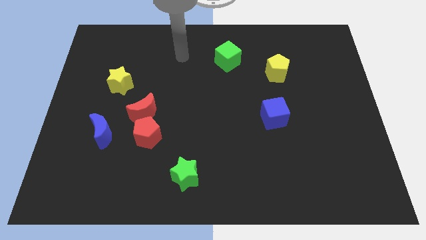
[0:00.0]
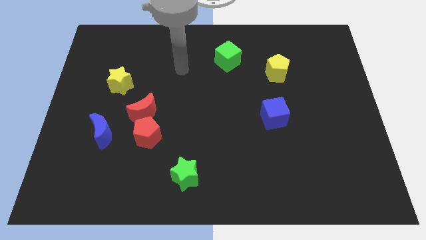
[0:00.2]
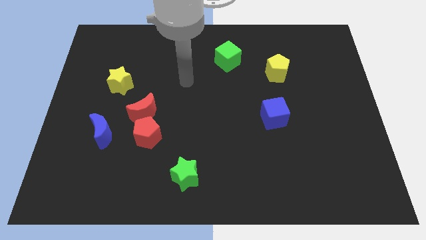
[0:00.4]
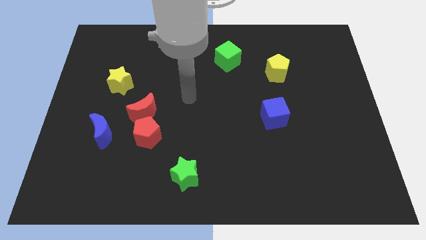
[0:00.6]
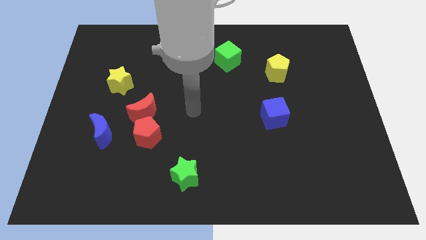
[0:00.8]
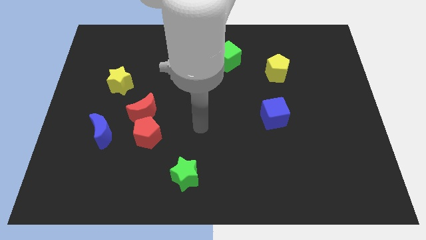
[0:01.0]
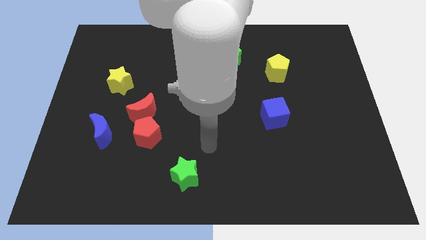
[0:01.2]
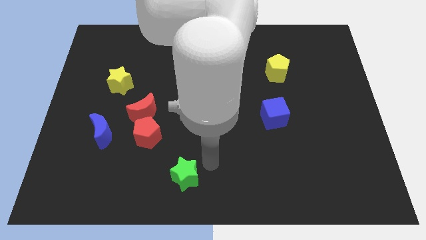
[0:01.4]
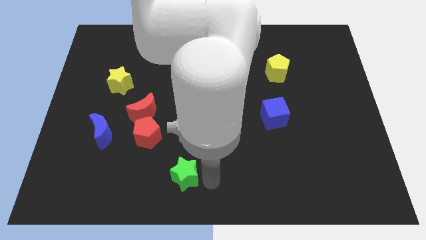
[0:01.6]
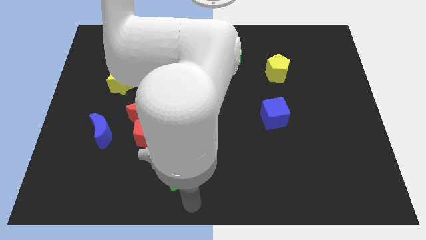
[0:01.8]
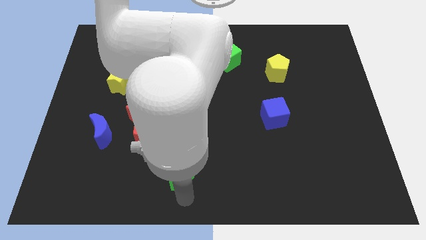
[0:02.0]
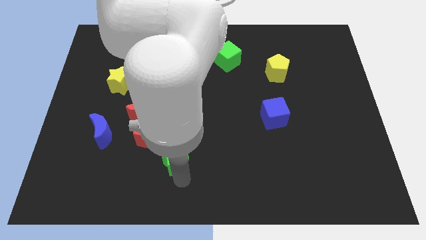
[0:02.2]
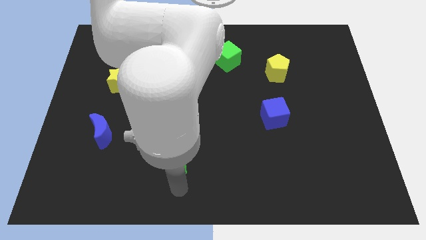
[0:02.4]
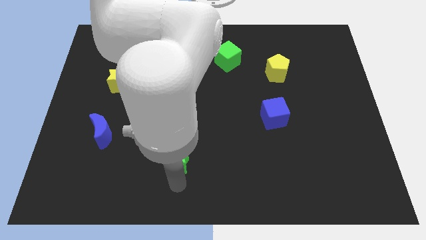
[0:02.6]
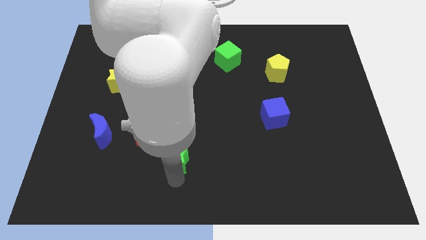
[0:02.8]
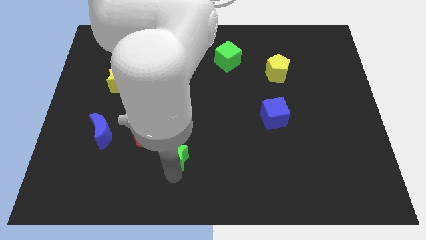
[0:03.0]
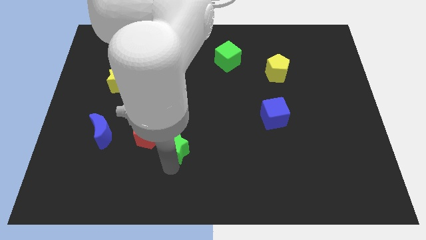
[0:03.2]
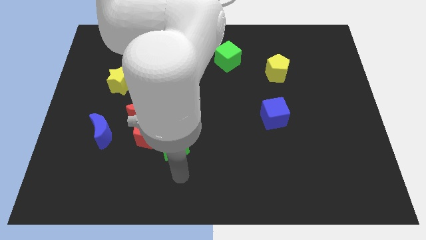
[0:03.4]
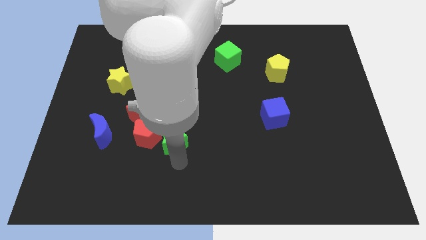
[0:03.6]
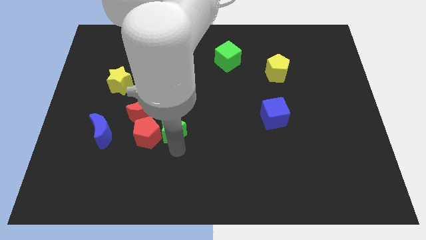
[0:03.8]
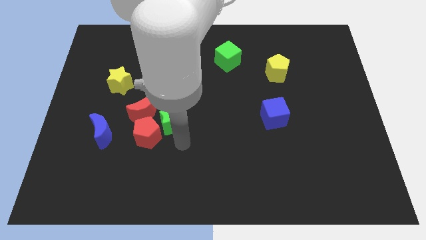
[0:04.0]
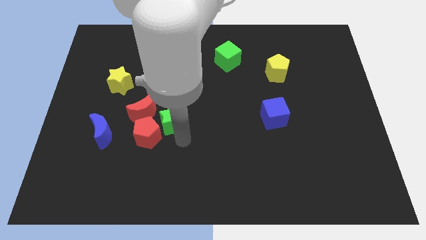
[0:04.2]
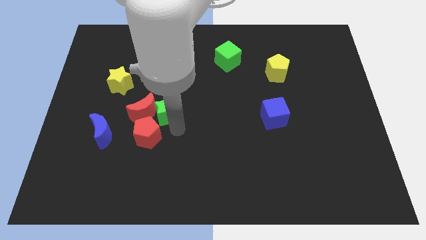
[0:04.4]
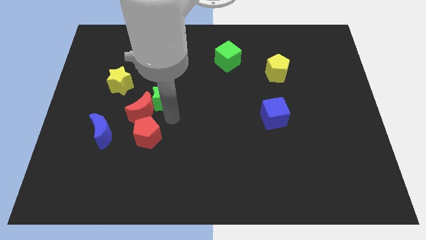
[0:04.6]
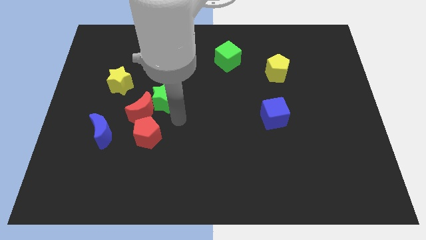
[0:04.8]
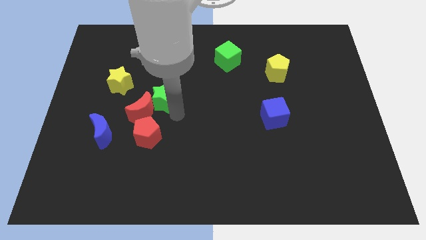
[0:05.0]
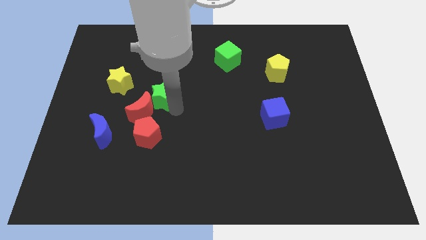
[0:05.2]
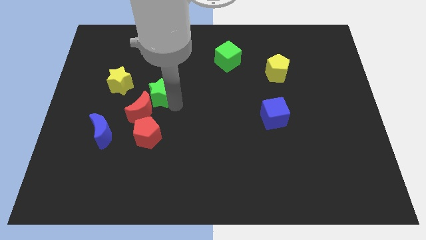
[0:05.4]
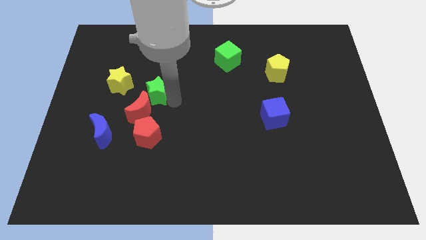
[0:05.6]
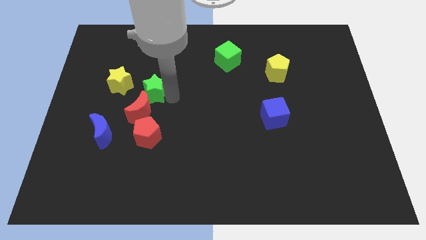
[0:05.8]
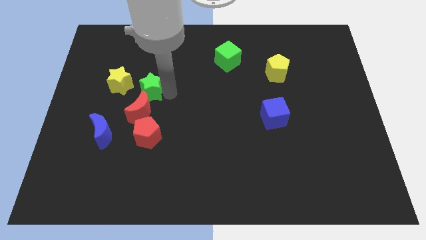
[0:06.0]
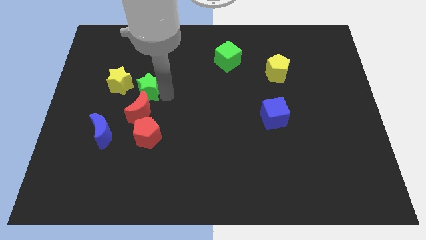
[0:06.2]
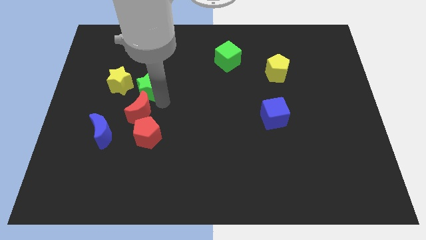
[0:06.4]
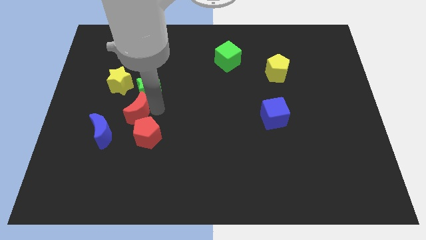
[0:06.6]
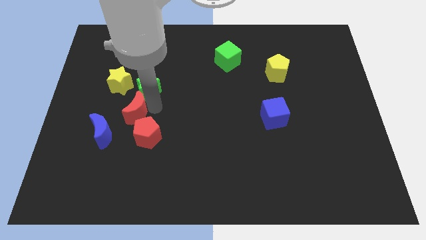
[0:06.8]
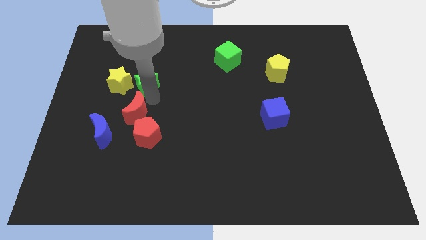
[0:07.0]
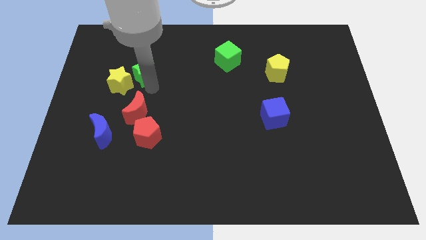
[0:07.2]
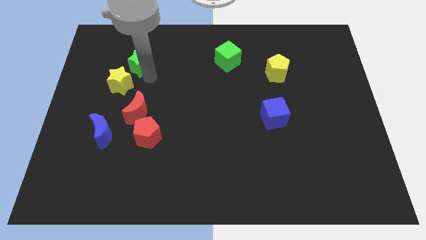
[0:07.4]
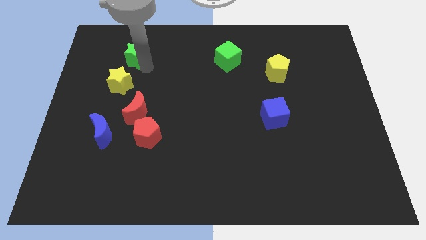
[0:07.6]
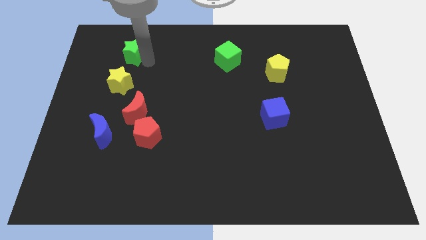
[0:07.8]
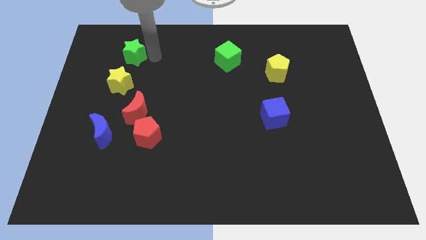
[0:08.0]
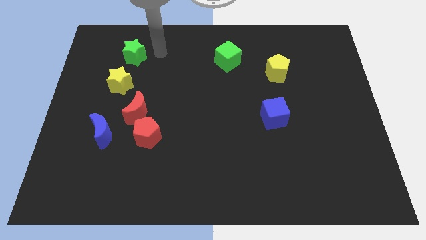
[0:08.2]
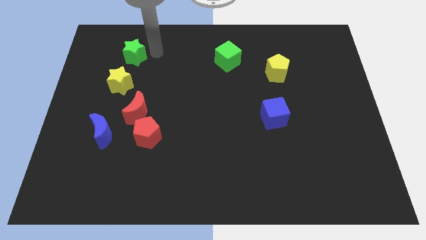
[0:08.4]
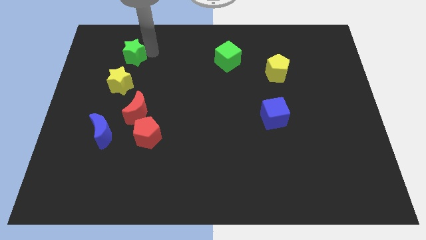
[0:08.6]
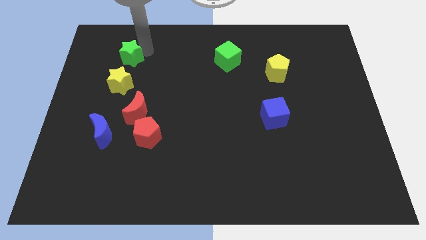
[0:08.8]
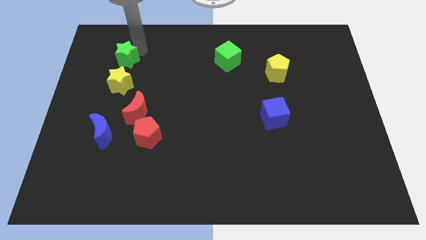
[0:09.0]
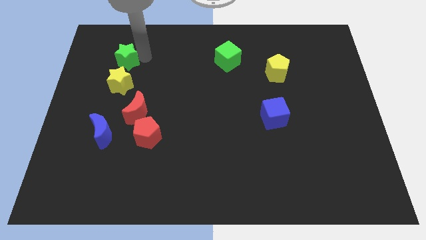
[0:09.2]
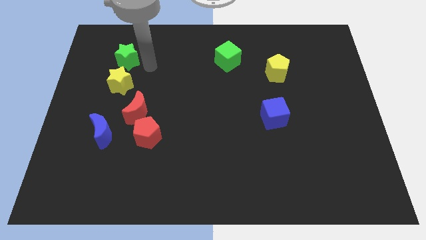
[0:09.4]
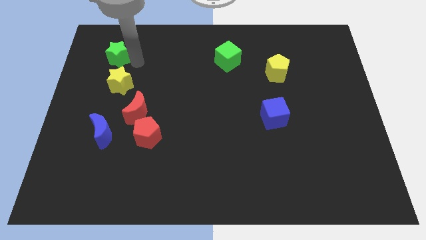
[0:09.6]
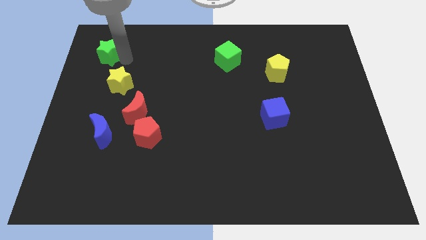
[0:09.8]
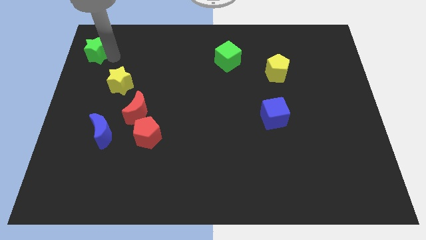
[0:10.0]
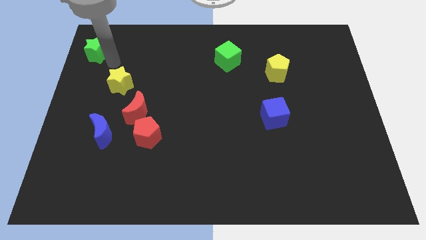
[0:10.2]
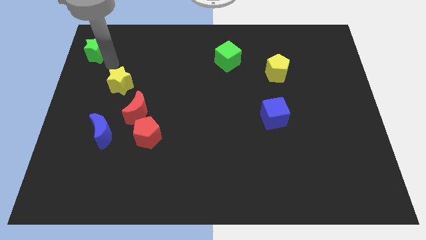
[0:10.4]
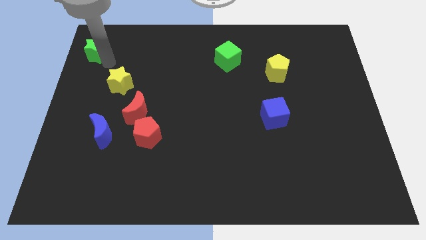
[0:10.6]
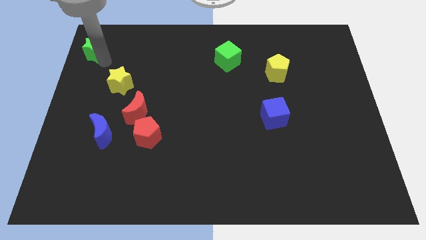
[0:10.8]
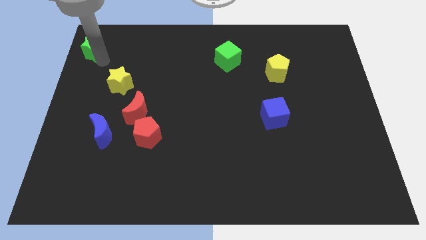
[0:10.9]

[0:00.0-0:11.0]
slide the green star to the top left

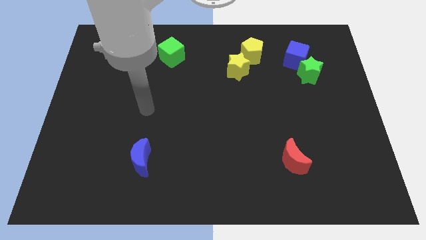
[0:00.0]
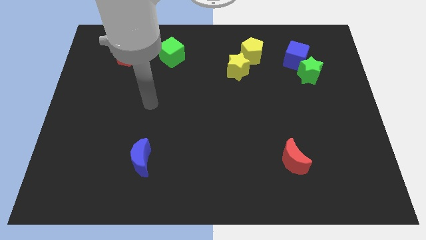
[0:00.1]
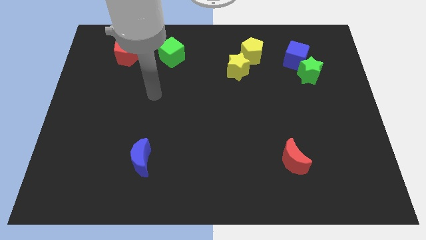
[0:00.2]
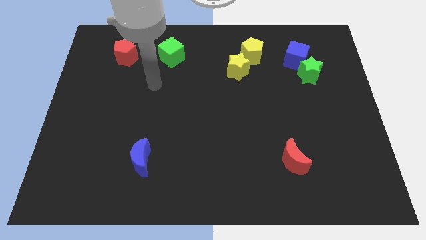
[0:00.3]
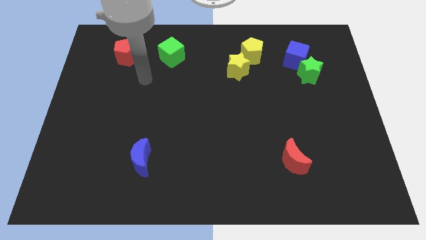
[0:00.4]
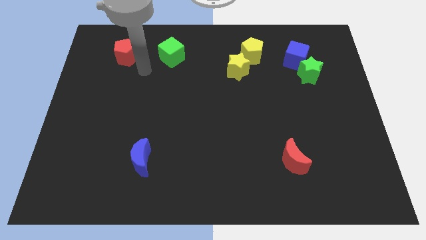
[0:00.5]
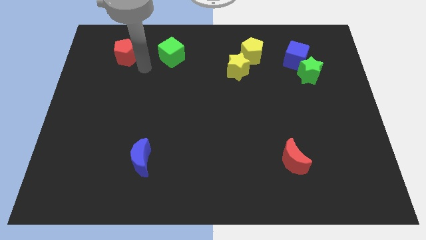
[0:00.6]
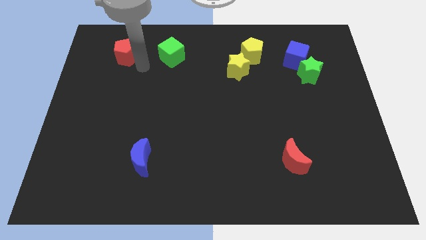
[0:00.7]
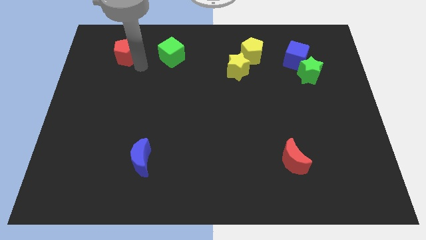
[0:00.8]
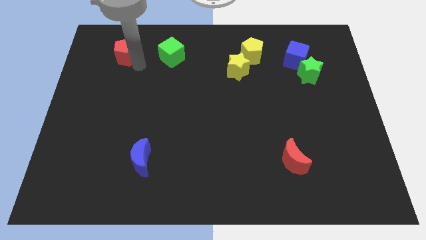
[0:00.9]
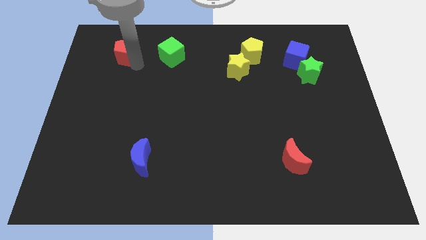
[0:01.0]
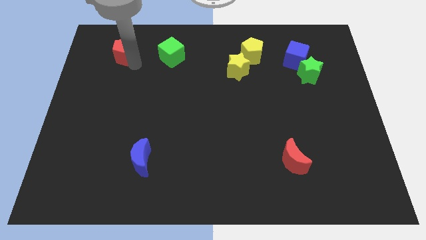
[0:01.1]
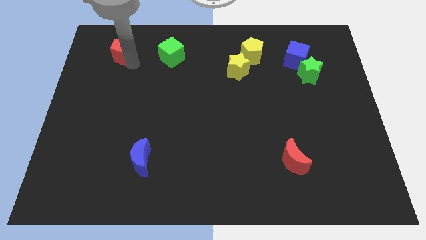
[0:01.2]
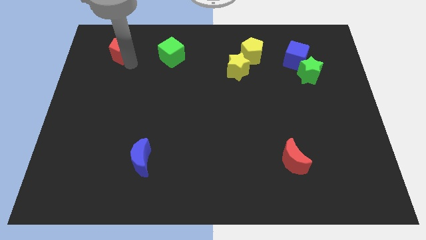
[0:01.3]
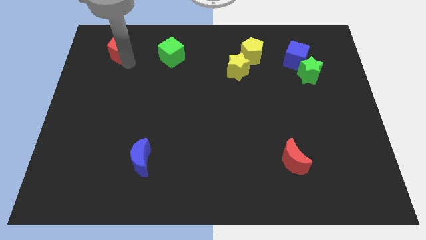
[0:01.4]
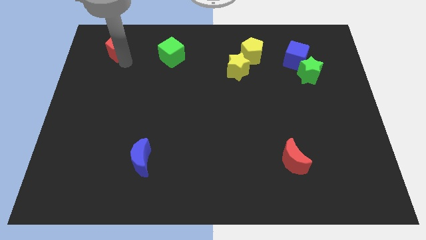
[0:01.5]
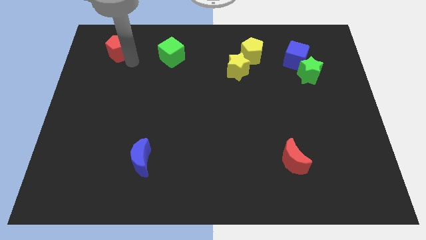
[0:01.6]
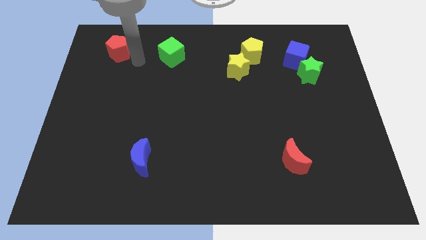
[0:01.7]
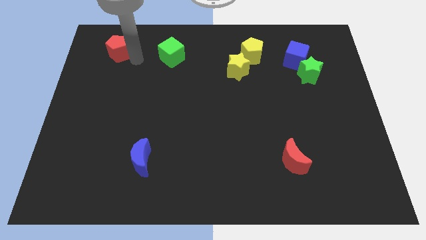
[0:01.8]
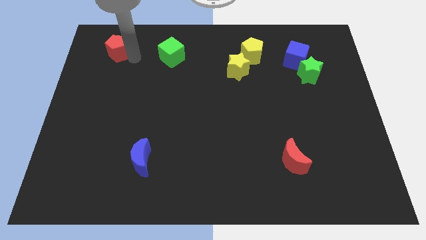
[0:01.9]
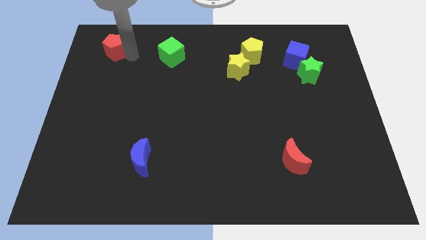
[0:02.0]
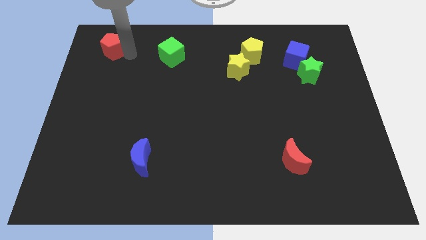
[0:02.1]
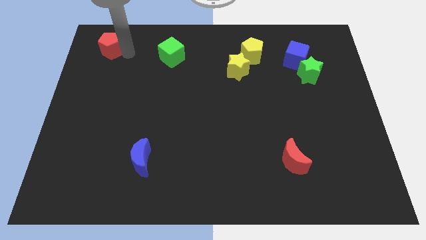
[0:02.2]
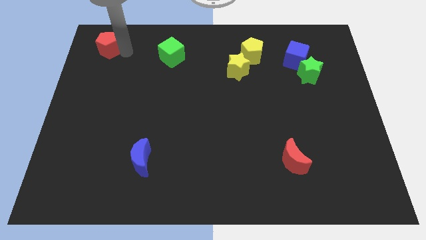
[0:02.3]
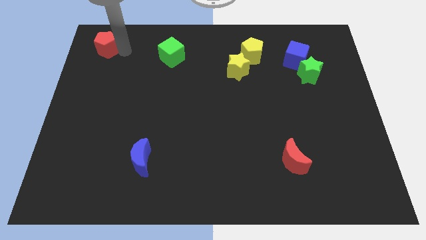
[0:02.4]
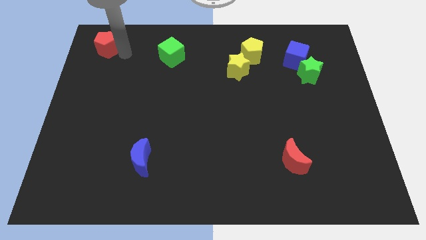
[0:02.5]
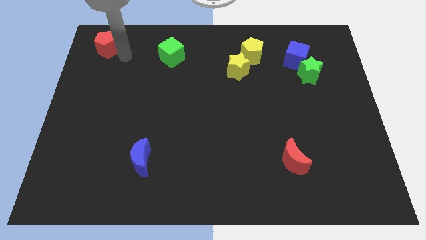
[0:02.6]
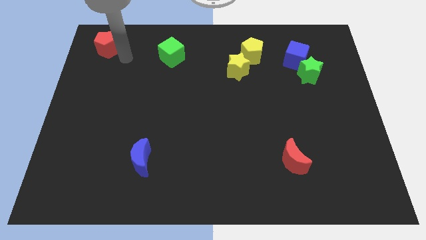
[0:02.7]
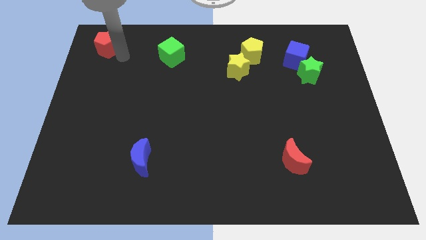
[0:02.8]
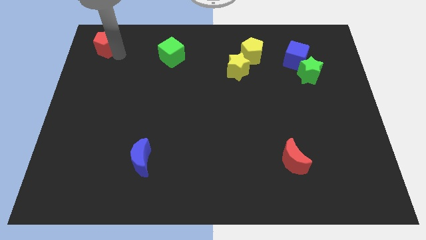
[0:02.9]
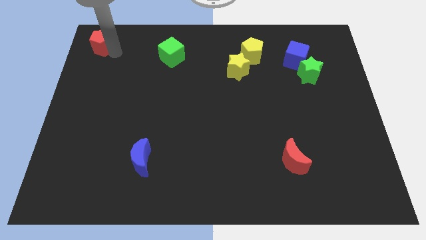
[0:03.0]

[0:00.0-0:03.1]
put the red pentagon to the upper left corner
